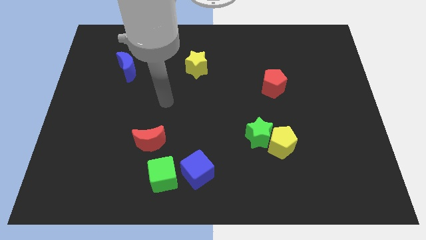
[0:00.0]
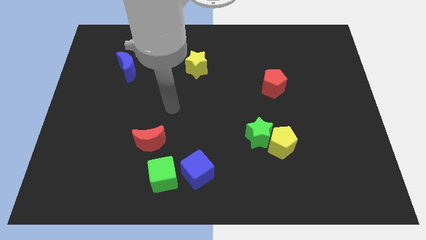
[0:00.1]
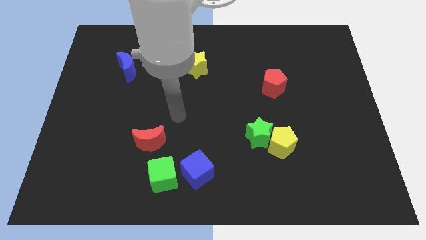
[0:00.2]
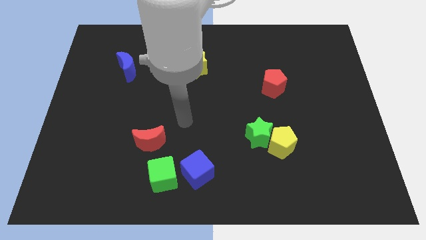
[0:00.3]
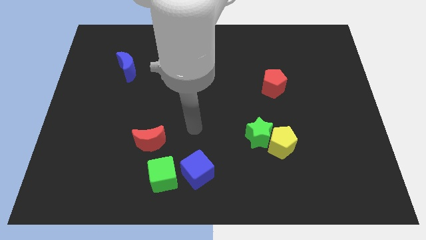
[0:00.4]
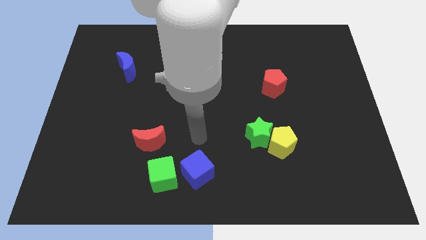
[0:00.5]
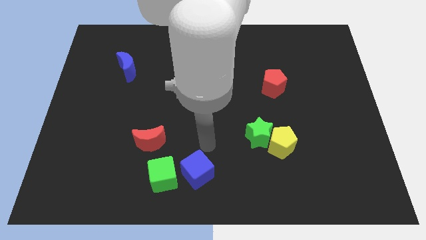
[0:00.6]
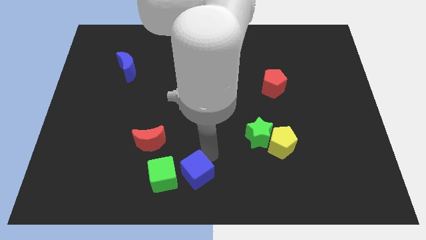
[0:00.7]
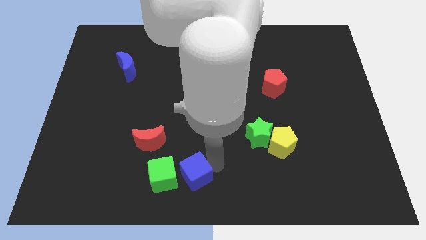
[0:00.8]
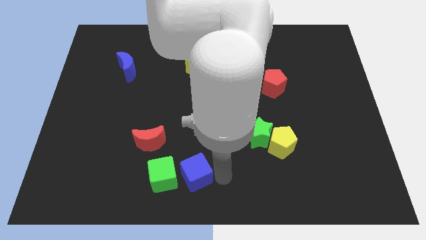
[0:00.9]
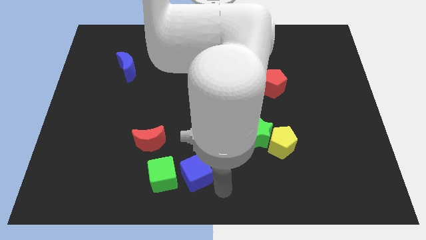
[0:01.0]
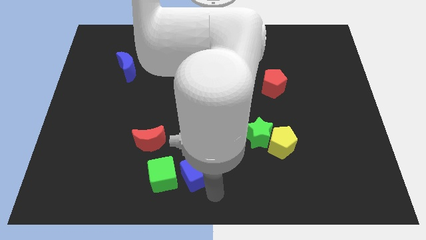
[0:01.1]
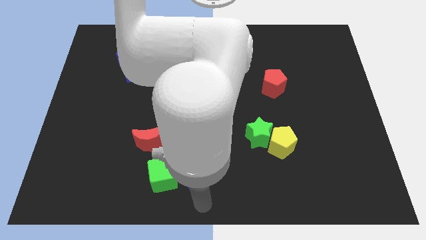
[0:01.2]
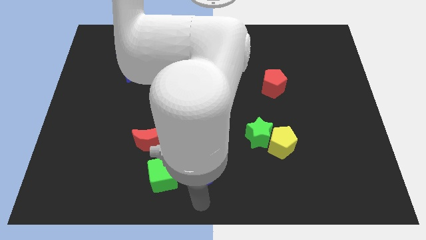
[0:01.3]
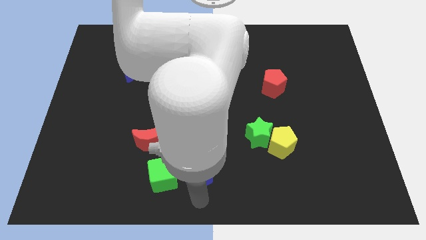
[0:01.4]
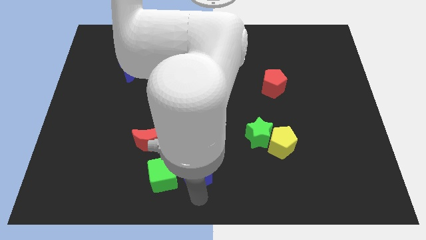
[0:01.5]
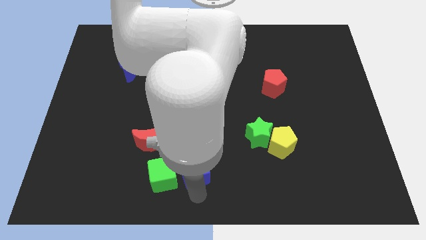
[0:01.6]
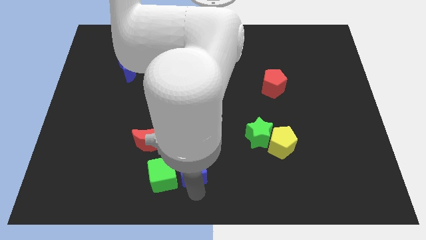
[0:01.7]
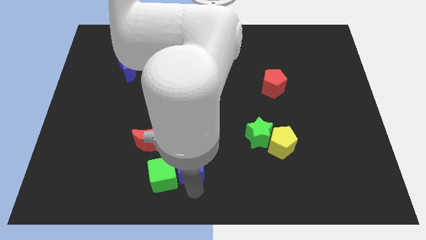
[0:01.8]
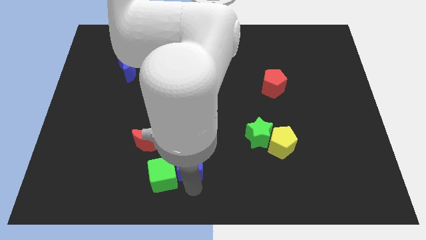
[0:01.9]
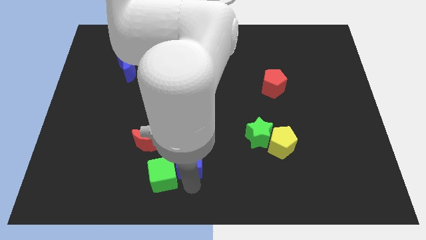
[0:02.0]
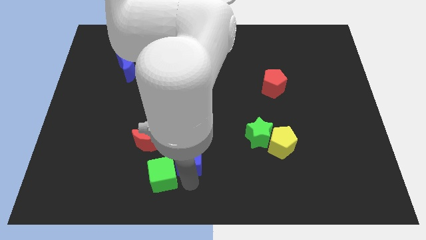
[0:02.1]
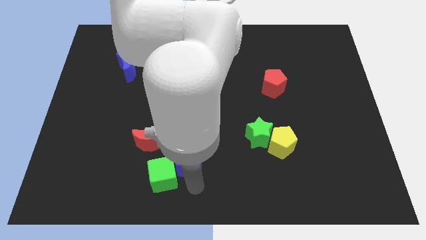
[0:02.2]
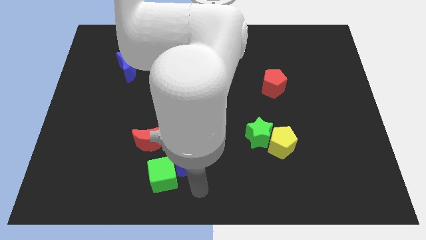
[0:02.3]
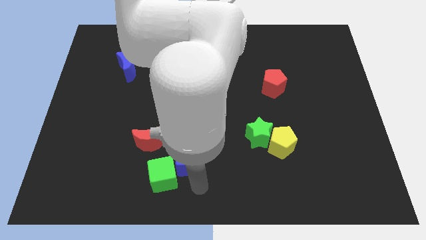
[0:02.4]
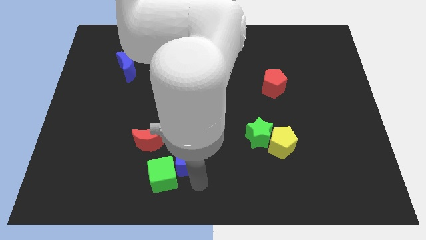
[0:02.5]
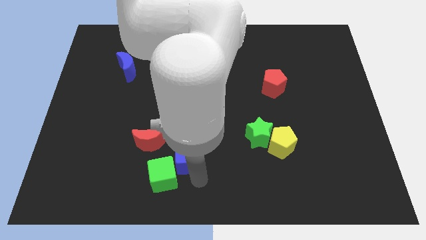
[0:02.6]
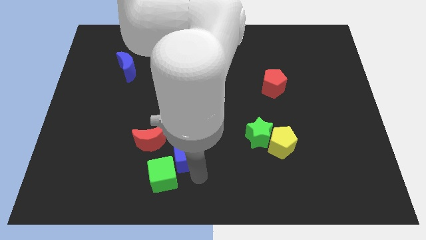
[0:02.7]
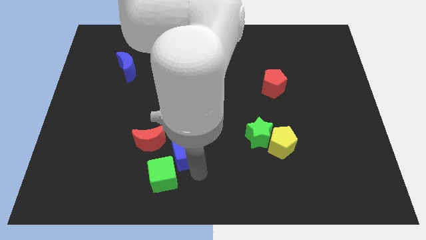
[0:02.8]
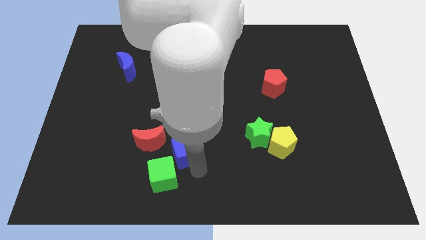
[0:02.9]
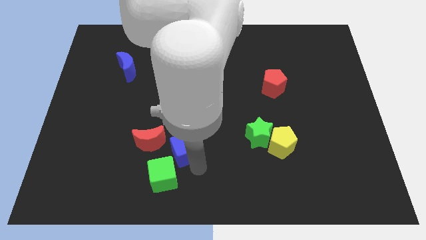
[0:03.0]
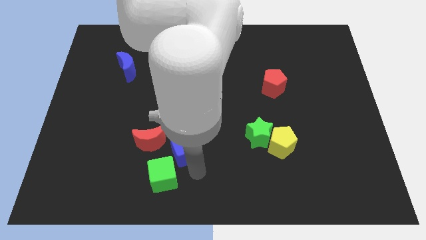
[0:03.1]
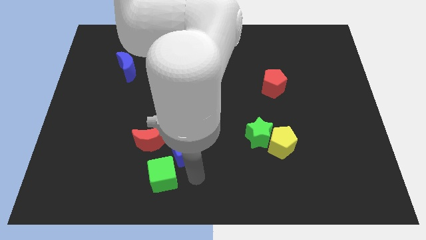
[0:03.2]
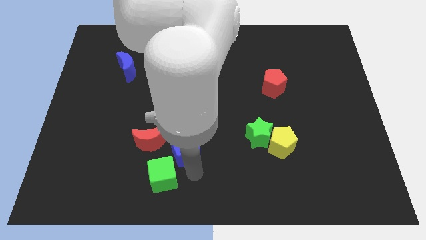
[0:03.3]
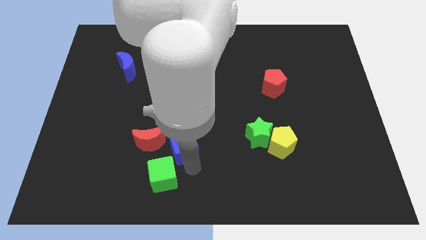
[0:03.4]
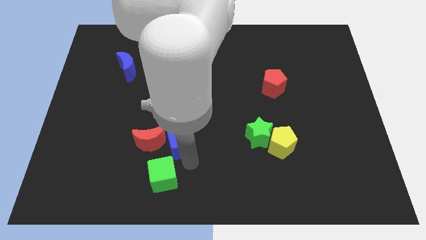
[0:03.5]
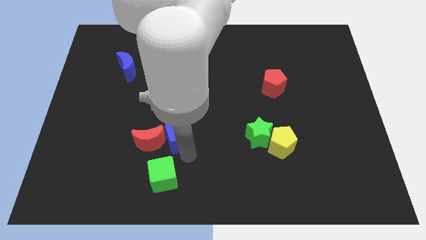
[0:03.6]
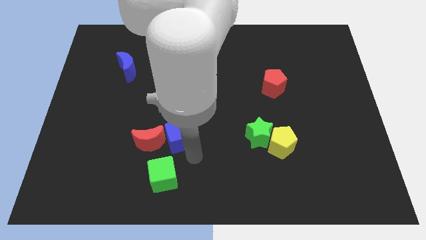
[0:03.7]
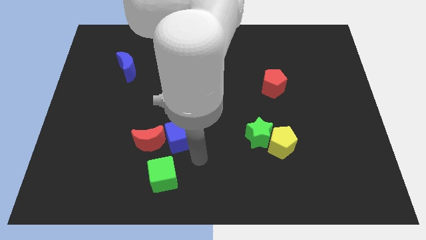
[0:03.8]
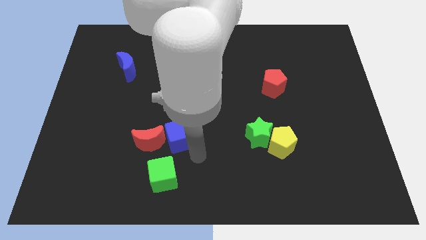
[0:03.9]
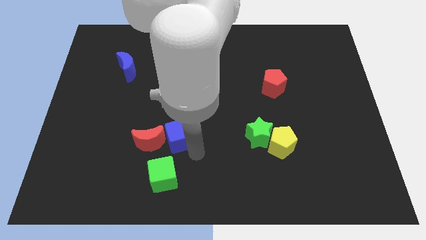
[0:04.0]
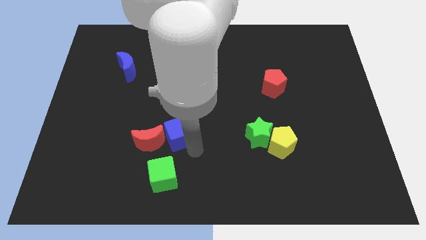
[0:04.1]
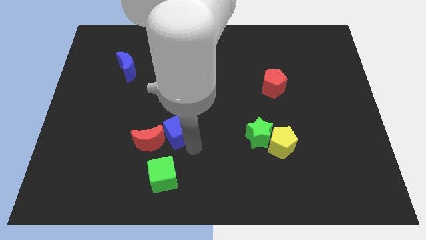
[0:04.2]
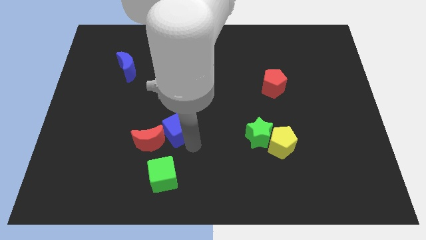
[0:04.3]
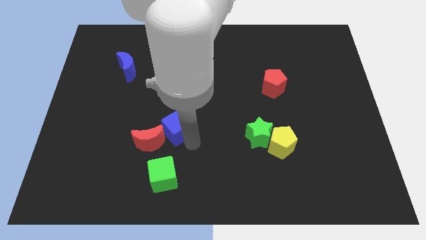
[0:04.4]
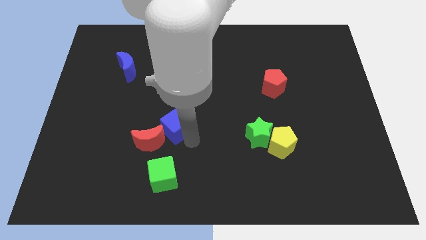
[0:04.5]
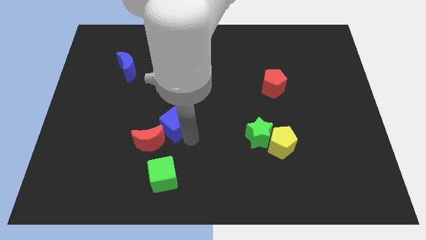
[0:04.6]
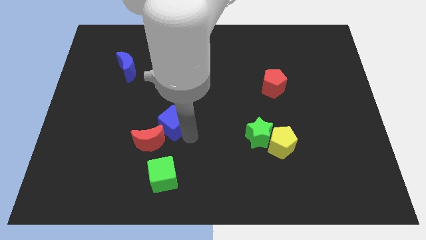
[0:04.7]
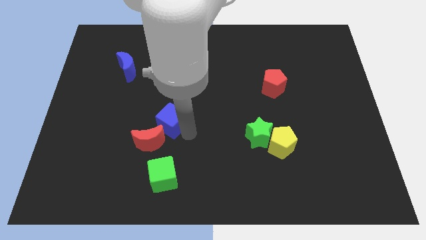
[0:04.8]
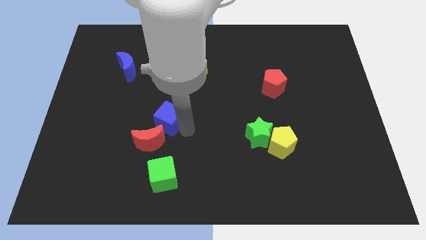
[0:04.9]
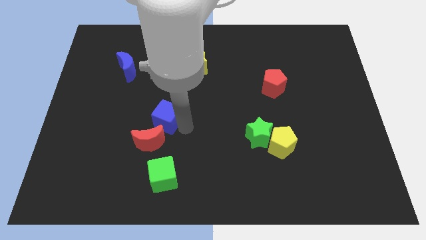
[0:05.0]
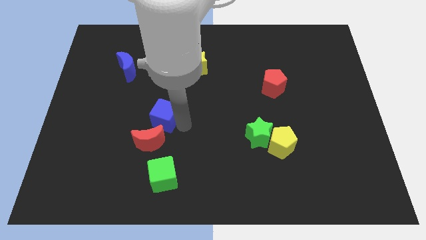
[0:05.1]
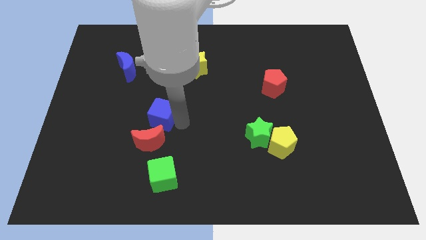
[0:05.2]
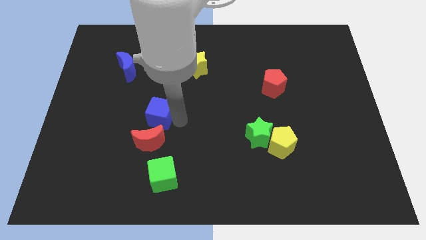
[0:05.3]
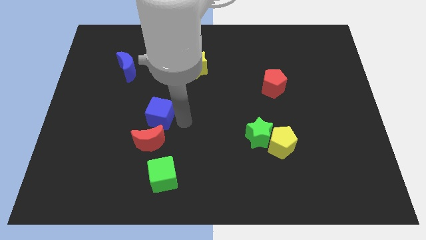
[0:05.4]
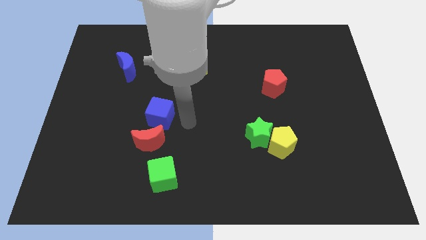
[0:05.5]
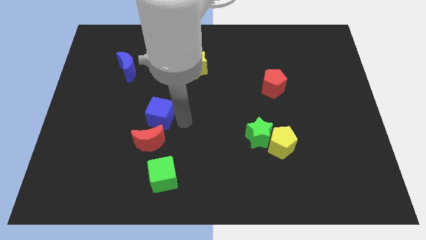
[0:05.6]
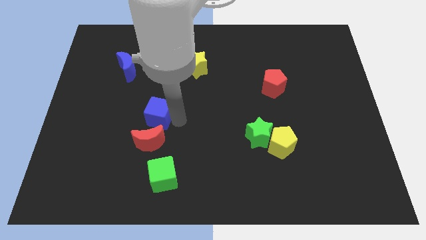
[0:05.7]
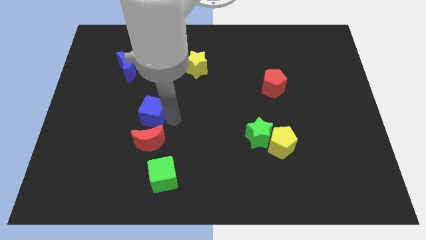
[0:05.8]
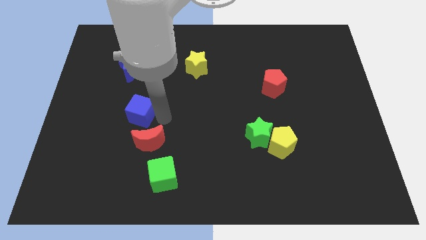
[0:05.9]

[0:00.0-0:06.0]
move the blue cube up and left

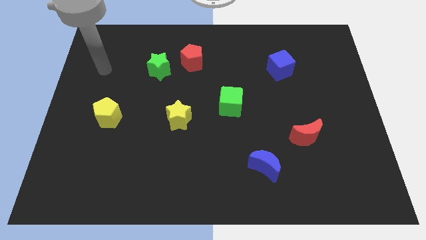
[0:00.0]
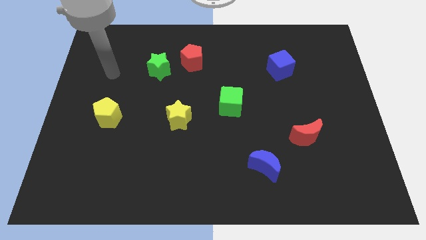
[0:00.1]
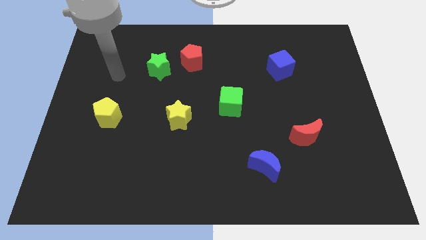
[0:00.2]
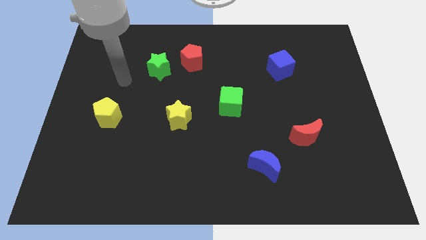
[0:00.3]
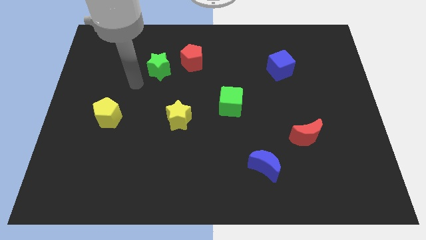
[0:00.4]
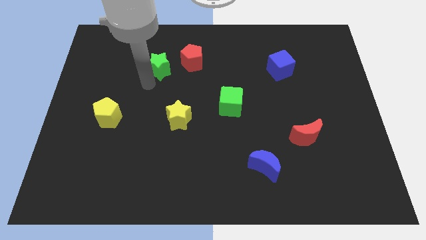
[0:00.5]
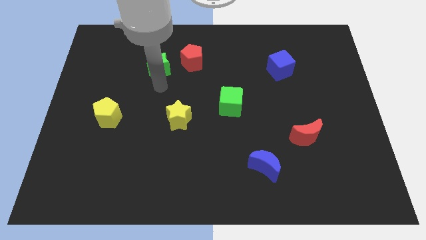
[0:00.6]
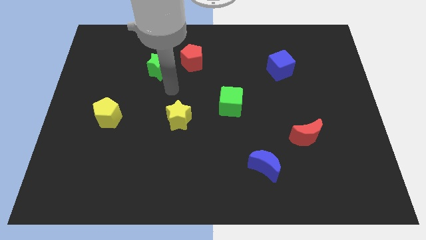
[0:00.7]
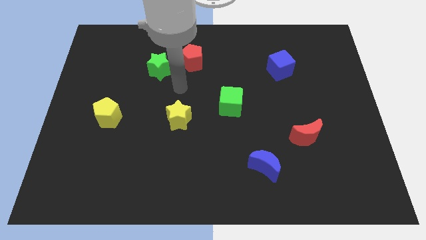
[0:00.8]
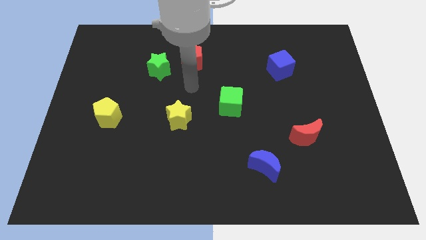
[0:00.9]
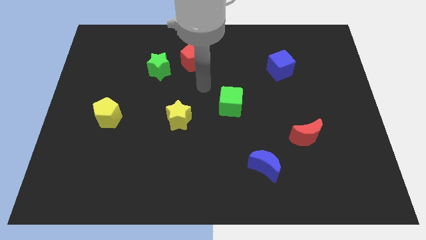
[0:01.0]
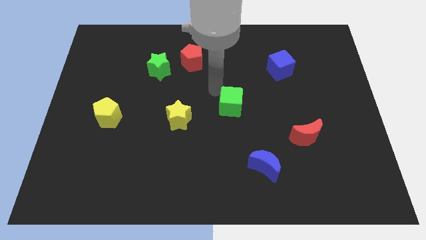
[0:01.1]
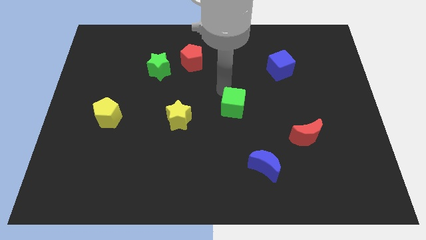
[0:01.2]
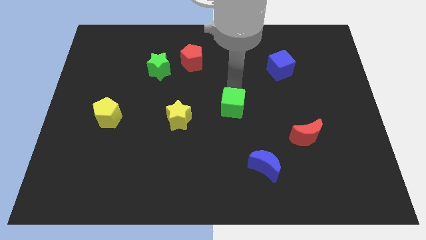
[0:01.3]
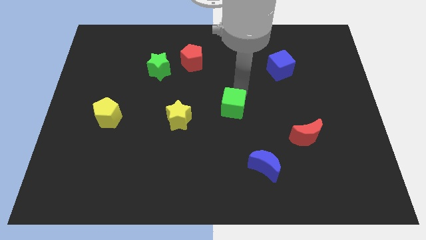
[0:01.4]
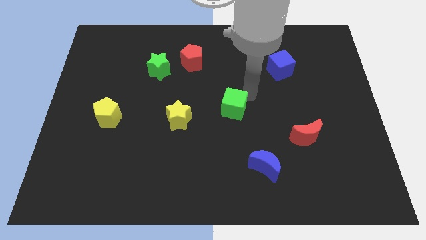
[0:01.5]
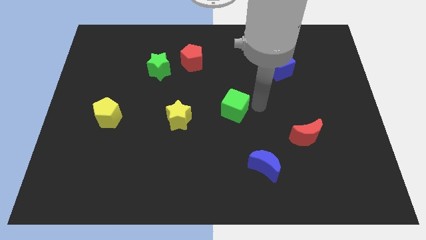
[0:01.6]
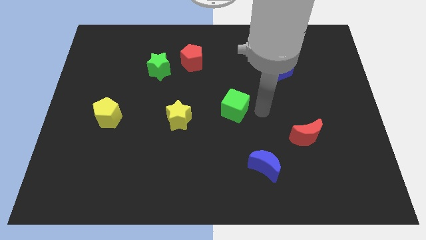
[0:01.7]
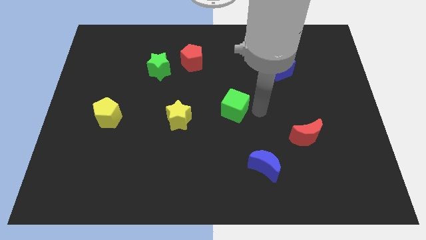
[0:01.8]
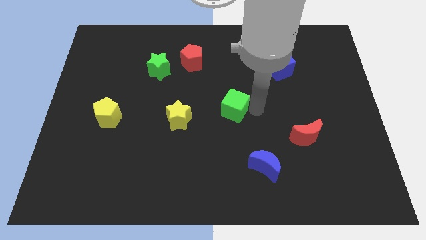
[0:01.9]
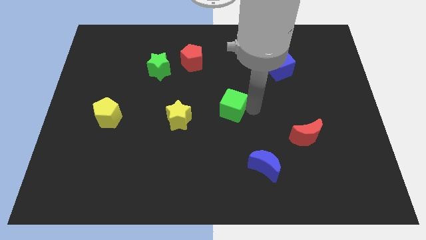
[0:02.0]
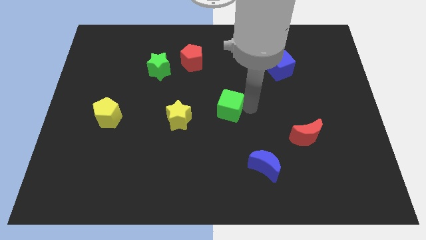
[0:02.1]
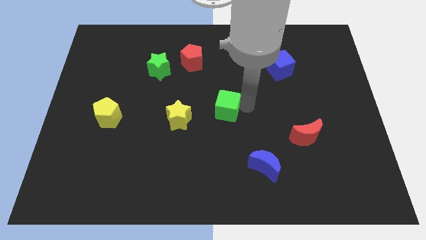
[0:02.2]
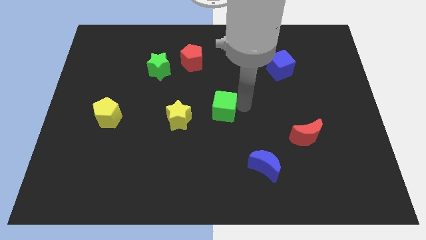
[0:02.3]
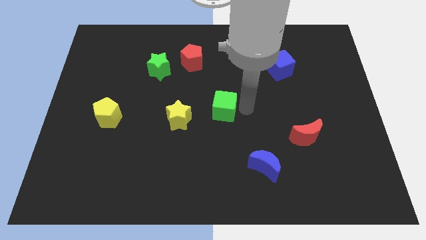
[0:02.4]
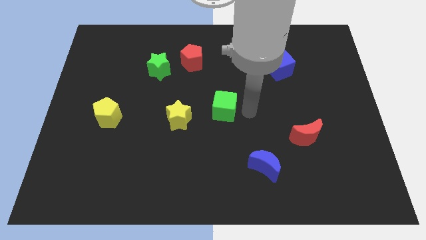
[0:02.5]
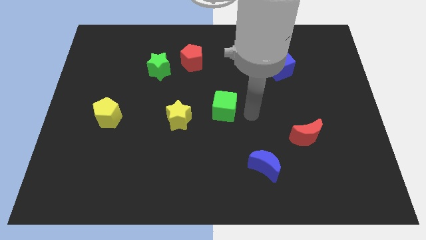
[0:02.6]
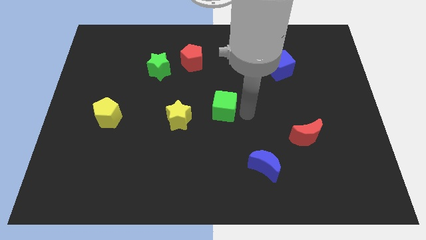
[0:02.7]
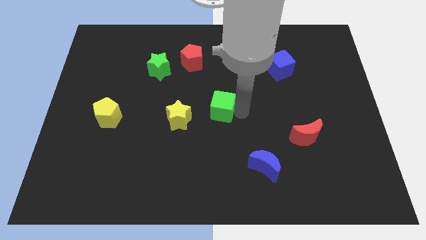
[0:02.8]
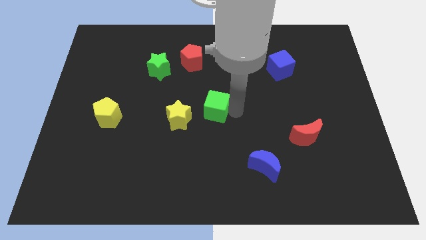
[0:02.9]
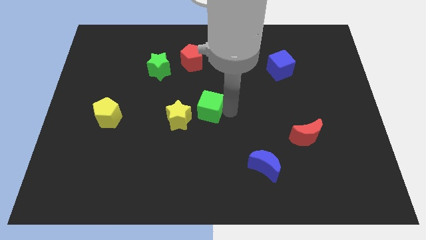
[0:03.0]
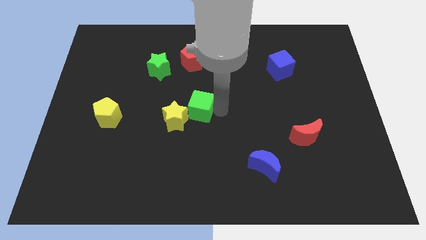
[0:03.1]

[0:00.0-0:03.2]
move the green cube left a little
